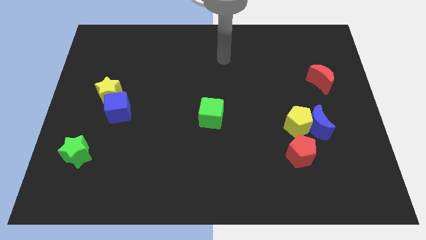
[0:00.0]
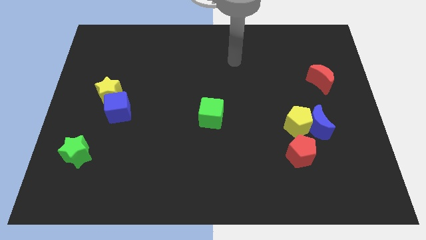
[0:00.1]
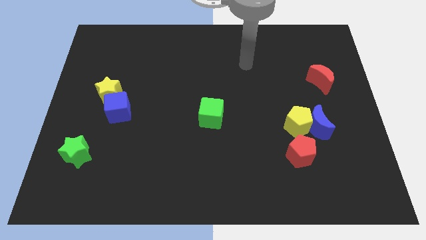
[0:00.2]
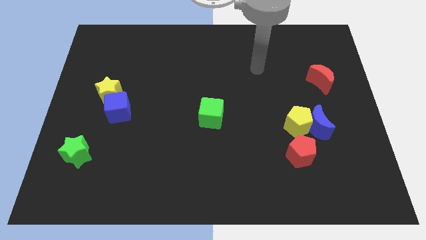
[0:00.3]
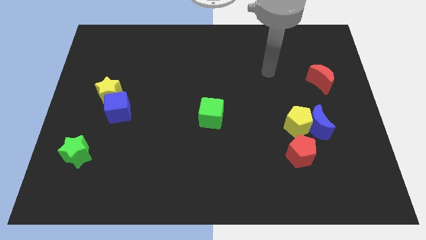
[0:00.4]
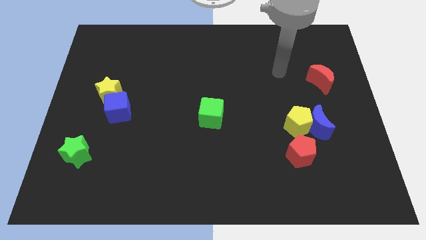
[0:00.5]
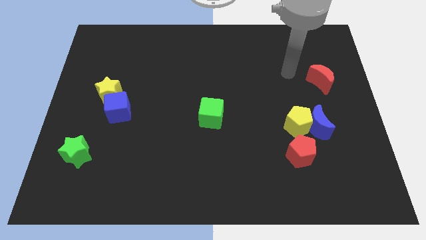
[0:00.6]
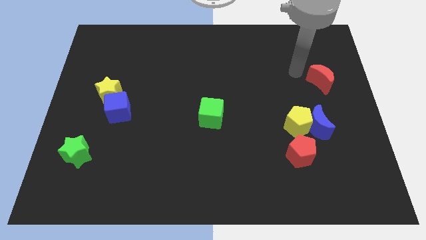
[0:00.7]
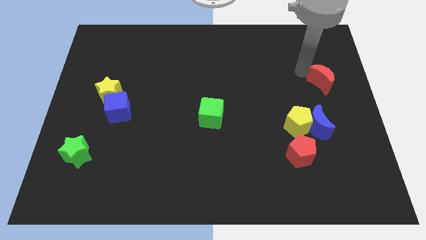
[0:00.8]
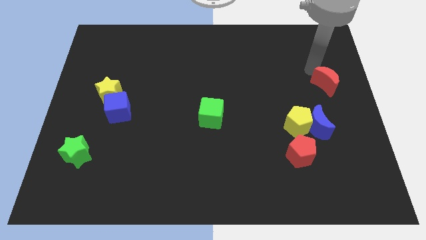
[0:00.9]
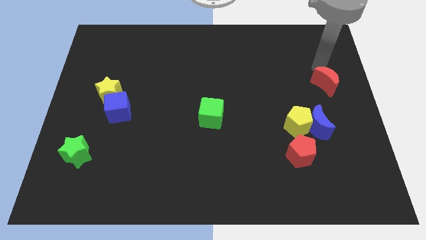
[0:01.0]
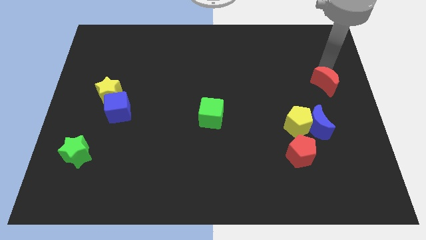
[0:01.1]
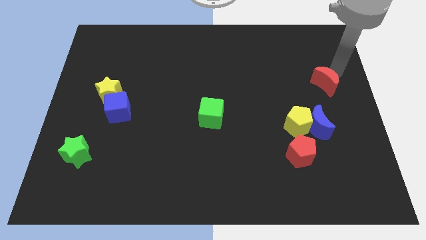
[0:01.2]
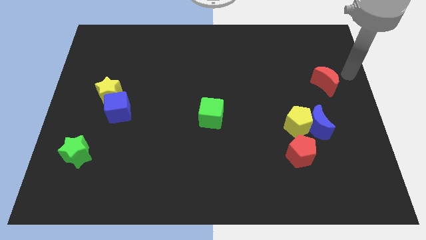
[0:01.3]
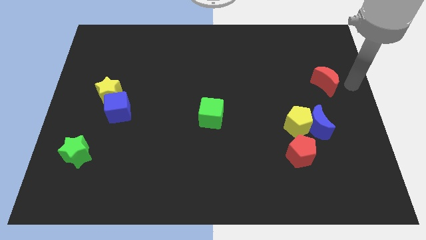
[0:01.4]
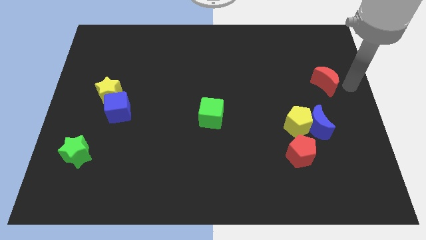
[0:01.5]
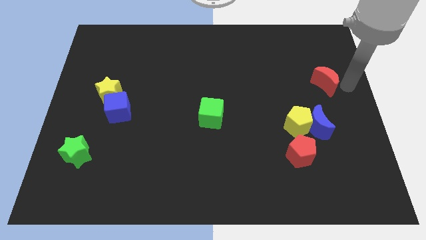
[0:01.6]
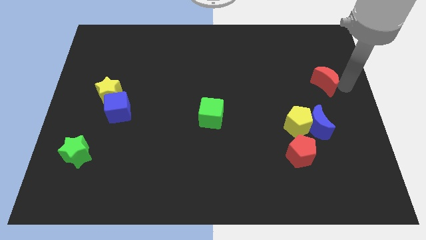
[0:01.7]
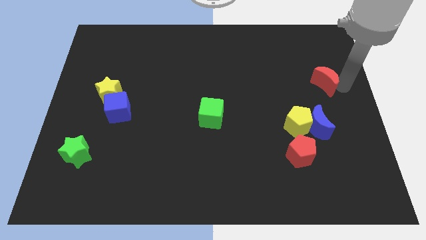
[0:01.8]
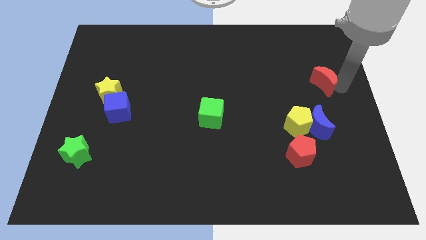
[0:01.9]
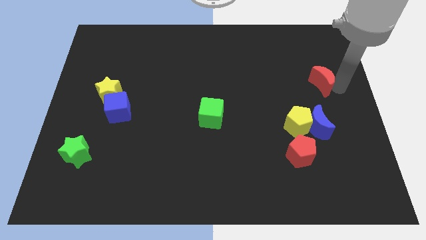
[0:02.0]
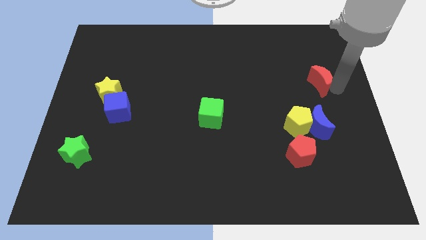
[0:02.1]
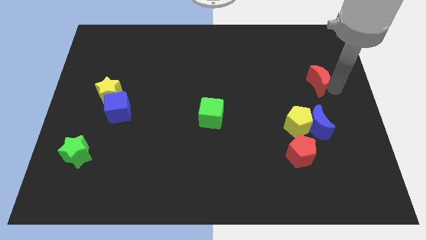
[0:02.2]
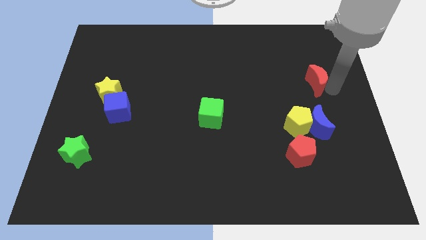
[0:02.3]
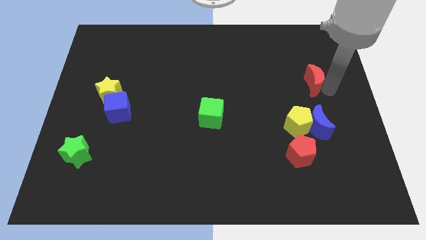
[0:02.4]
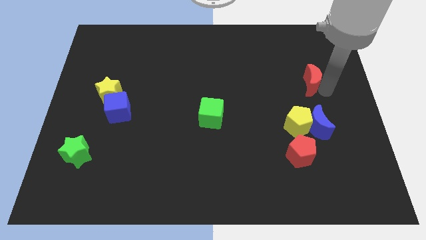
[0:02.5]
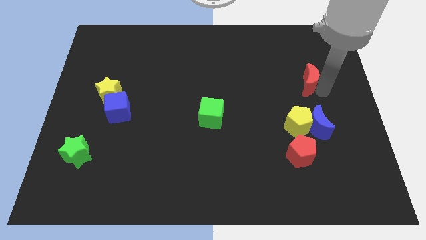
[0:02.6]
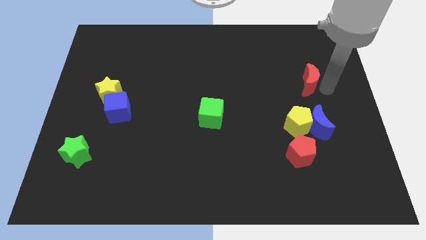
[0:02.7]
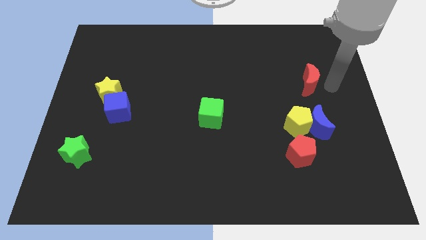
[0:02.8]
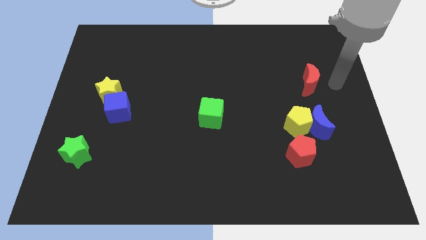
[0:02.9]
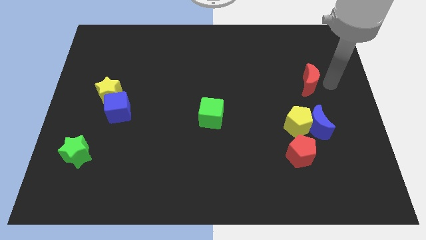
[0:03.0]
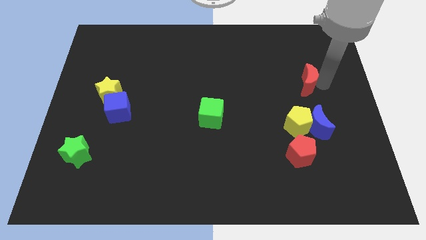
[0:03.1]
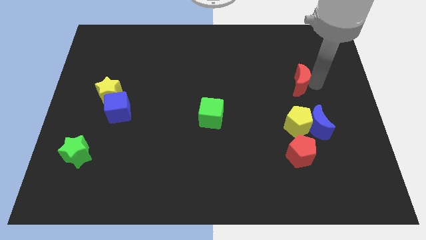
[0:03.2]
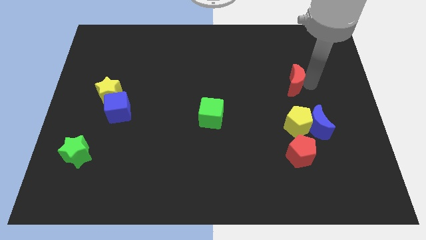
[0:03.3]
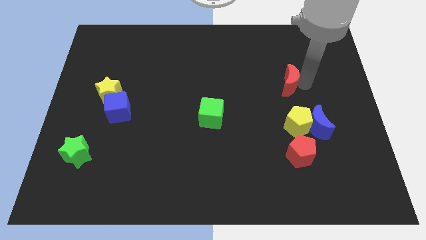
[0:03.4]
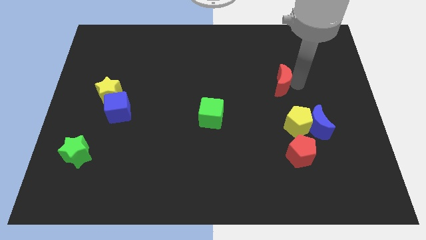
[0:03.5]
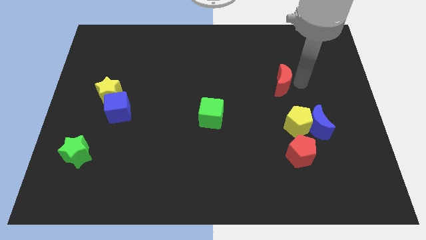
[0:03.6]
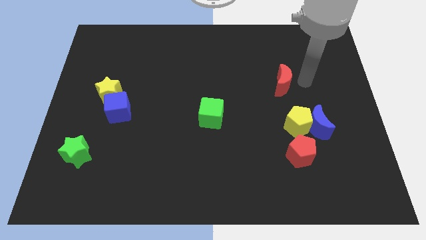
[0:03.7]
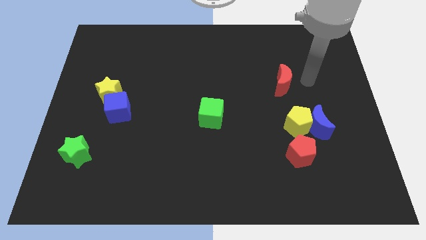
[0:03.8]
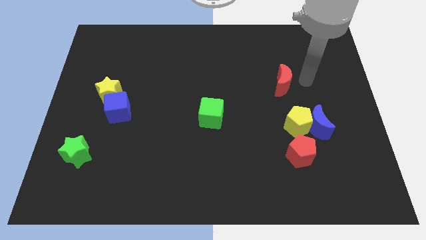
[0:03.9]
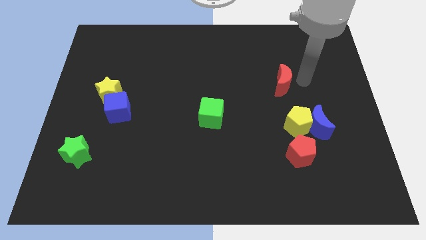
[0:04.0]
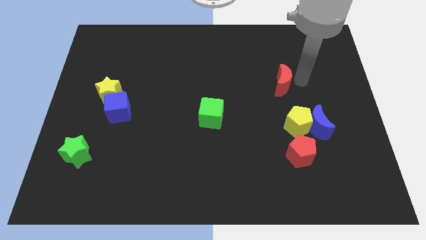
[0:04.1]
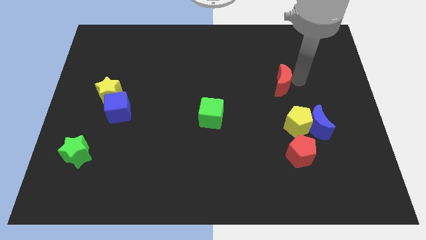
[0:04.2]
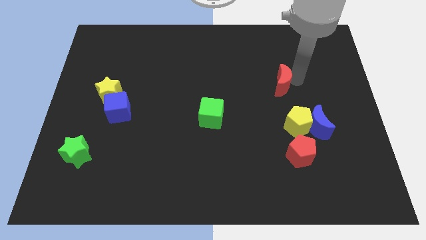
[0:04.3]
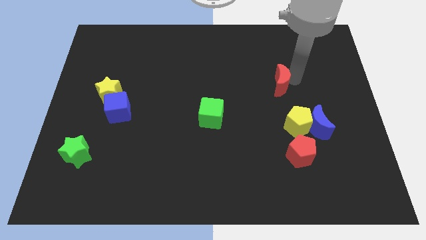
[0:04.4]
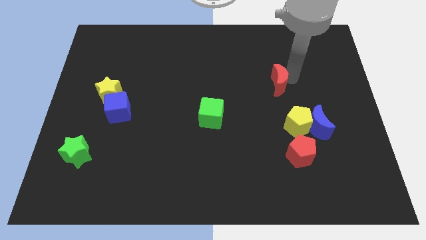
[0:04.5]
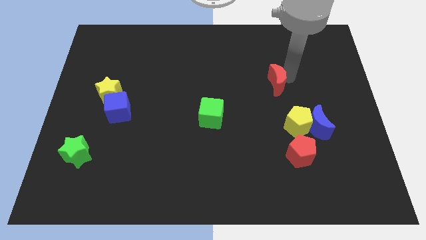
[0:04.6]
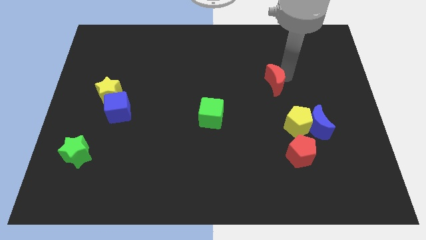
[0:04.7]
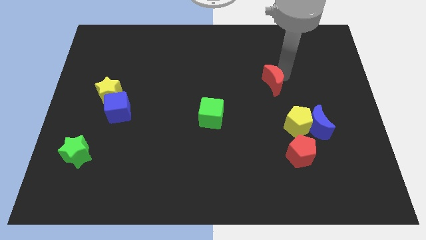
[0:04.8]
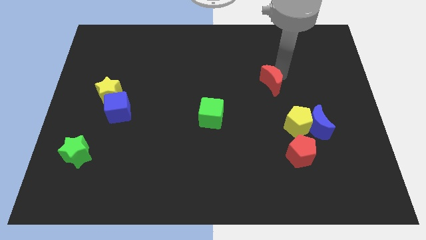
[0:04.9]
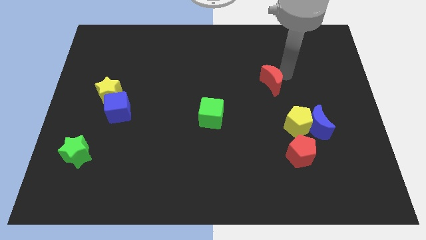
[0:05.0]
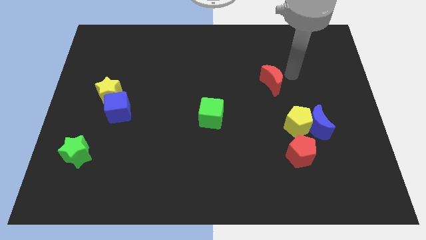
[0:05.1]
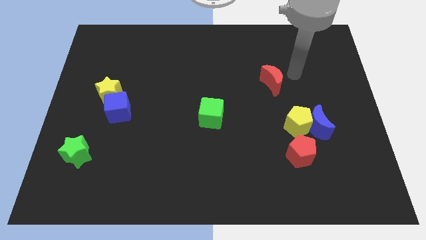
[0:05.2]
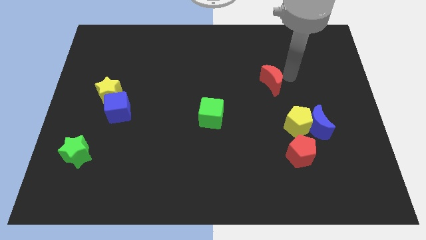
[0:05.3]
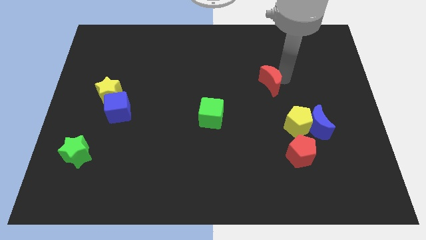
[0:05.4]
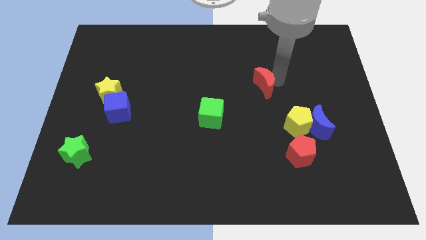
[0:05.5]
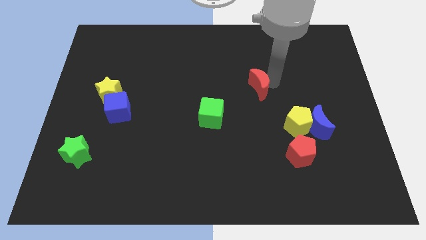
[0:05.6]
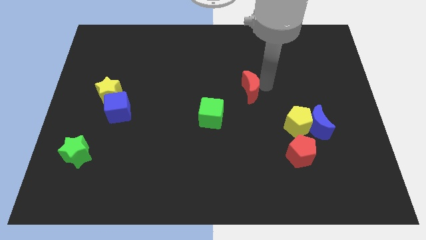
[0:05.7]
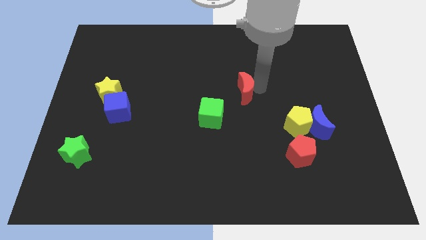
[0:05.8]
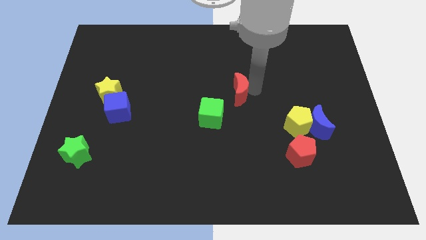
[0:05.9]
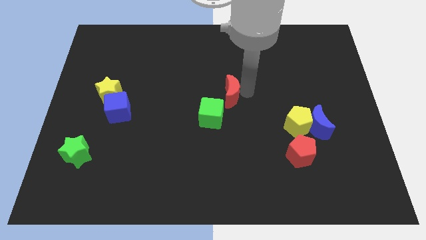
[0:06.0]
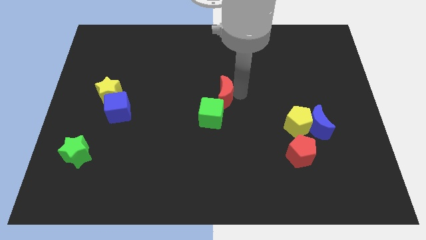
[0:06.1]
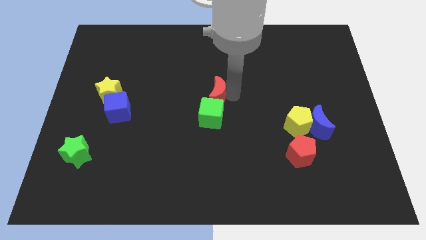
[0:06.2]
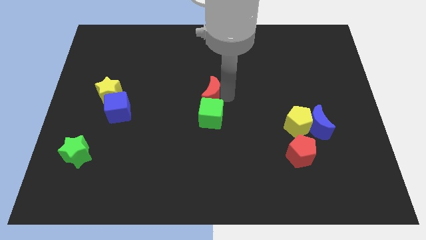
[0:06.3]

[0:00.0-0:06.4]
push the red moon to the top left side of the green cube

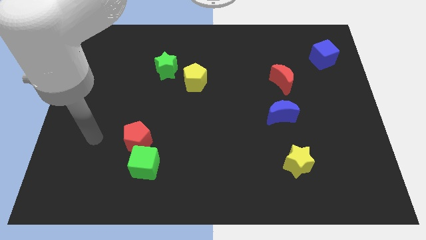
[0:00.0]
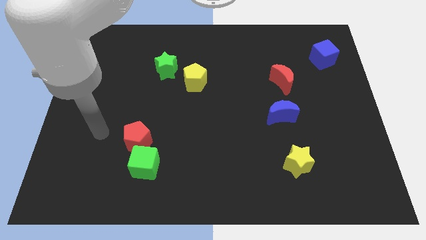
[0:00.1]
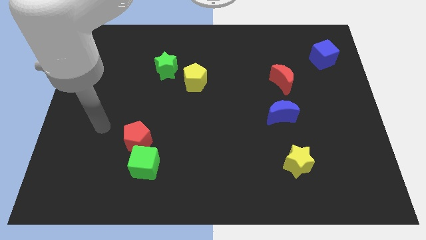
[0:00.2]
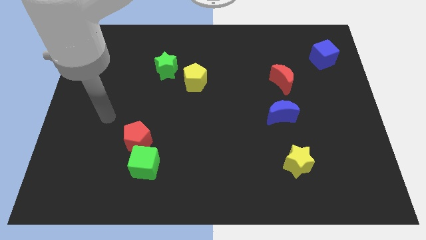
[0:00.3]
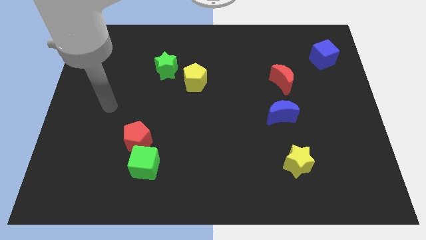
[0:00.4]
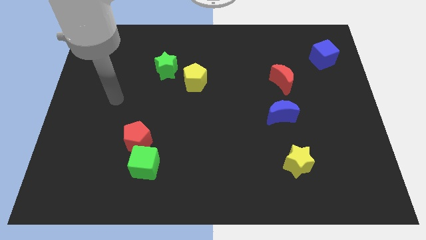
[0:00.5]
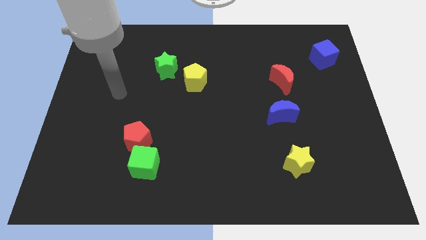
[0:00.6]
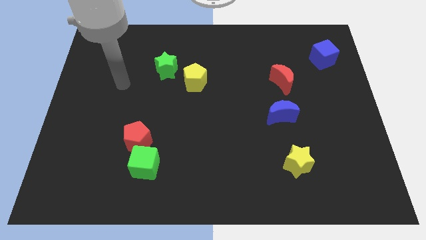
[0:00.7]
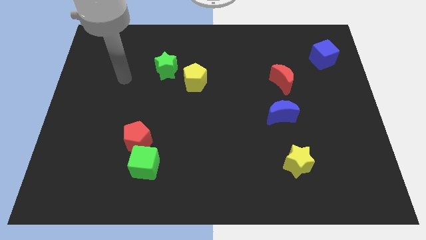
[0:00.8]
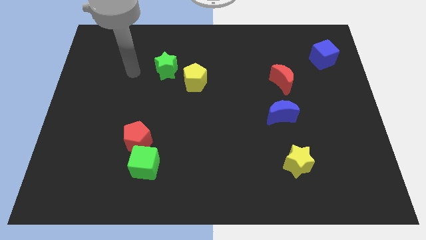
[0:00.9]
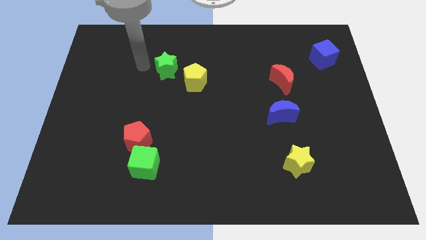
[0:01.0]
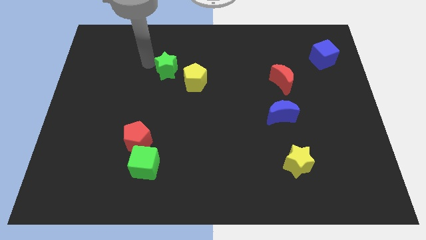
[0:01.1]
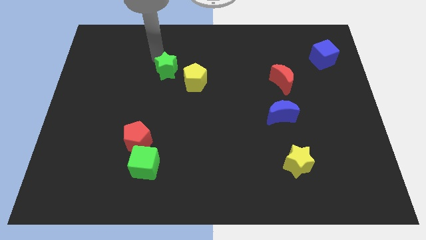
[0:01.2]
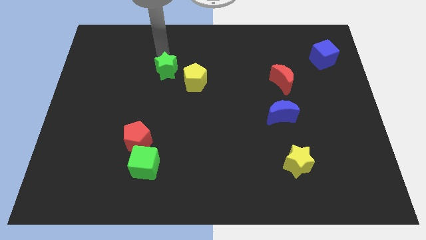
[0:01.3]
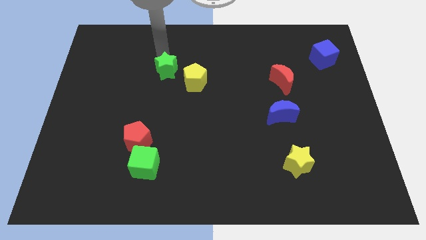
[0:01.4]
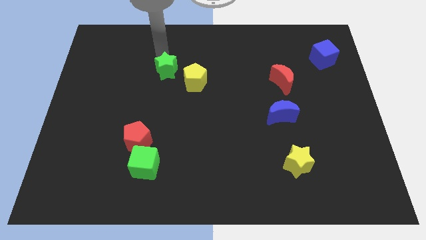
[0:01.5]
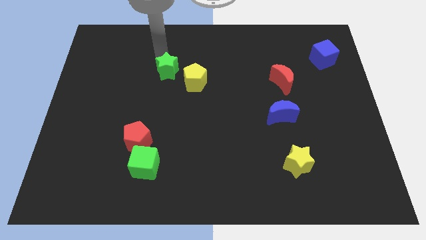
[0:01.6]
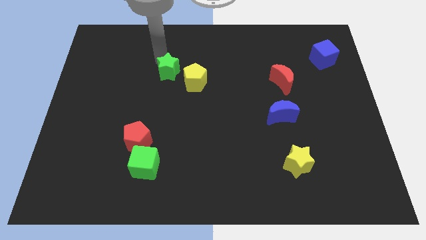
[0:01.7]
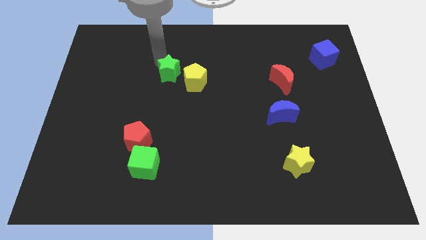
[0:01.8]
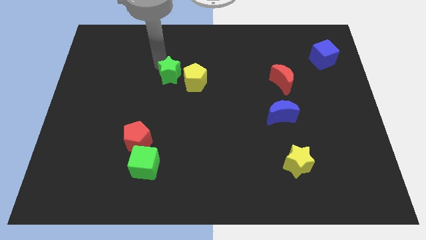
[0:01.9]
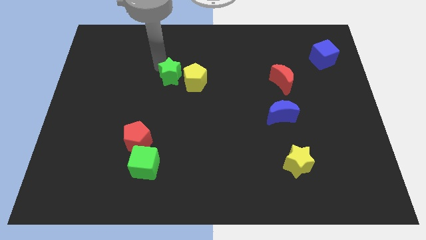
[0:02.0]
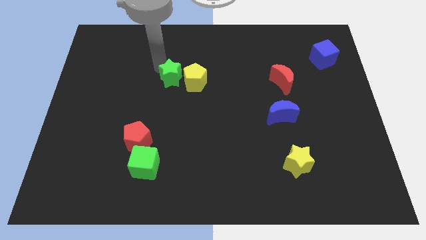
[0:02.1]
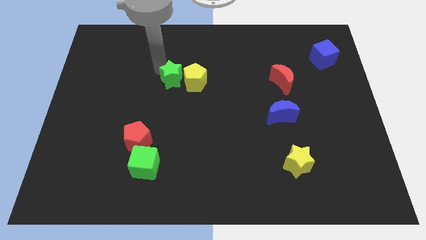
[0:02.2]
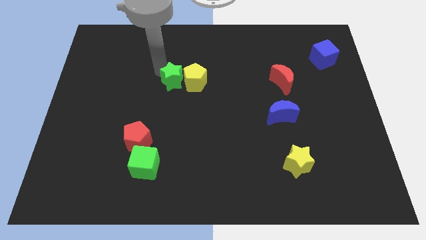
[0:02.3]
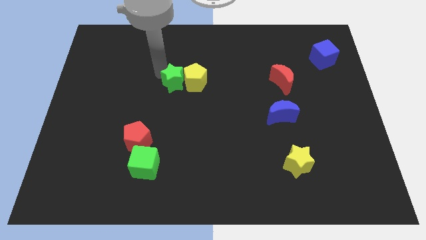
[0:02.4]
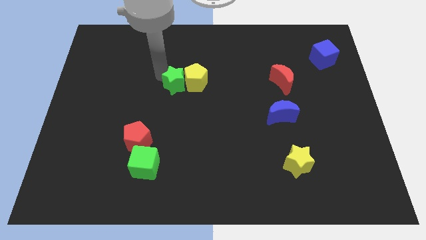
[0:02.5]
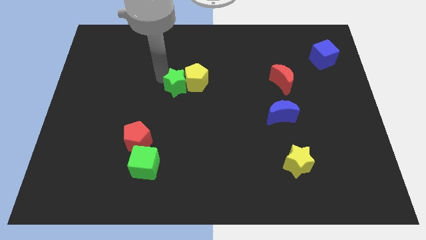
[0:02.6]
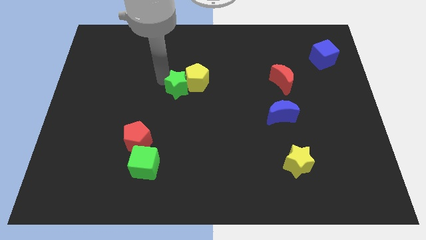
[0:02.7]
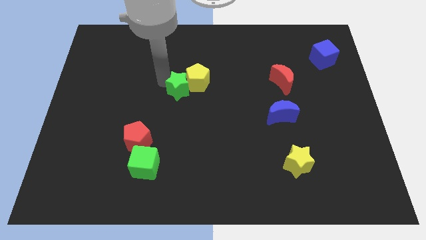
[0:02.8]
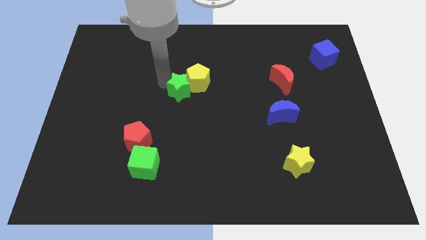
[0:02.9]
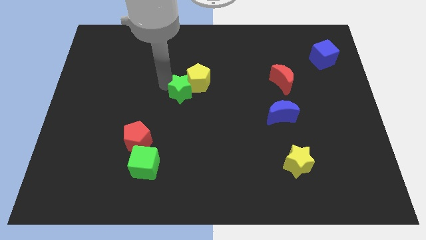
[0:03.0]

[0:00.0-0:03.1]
put the green star below the yellow pentagon
